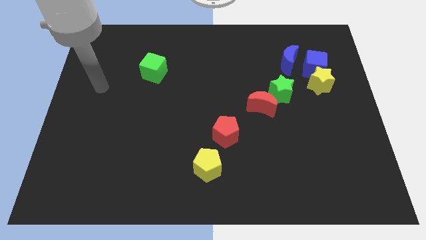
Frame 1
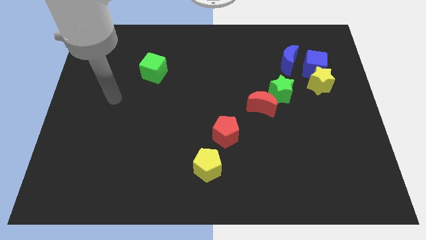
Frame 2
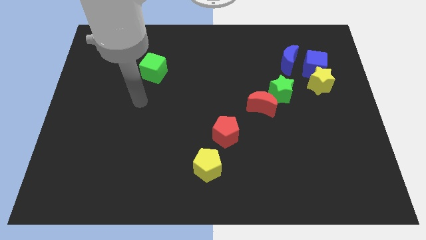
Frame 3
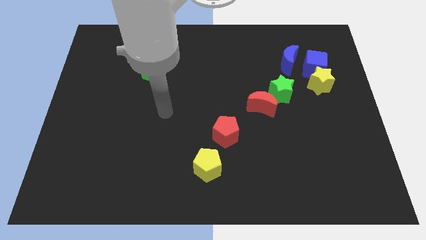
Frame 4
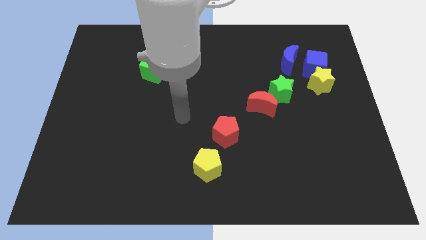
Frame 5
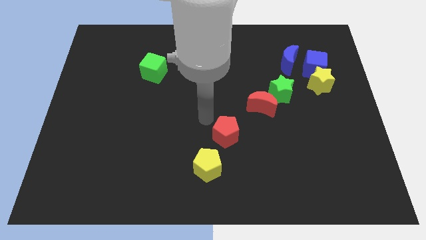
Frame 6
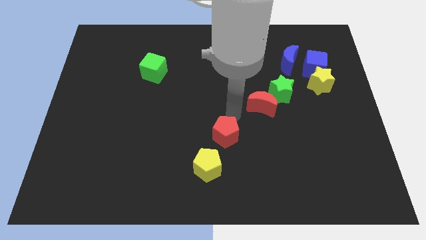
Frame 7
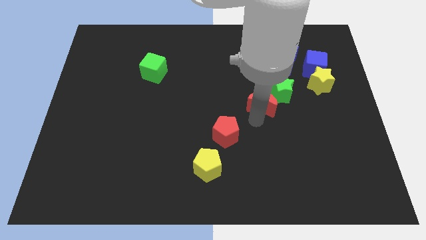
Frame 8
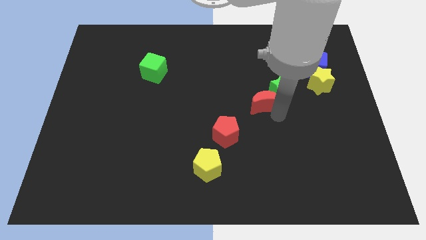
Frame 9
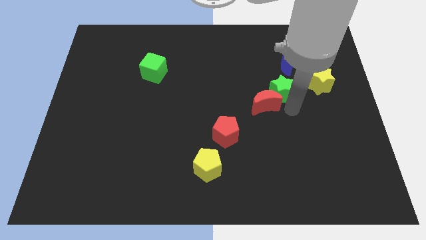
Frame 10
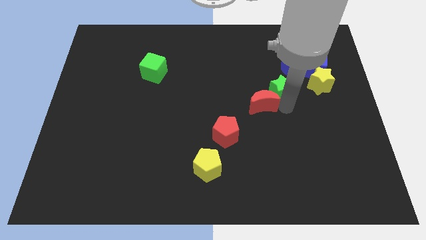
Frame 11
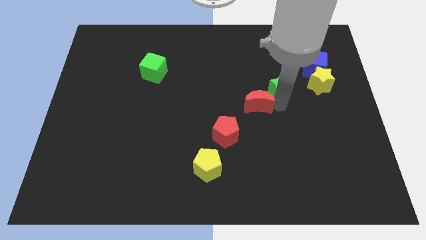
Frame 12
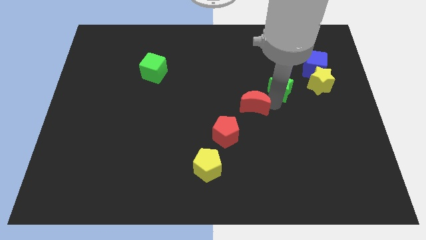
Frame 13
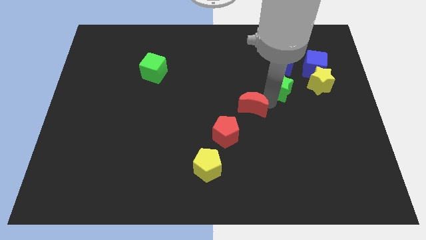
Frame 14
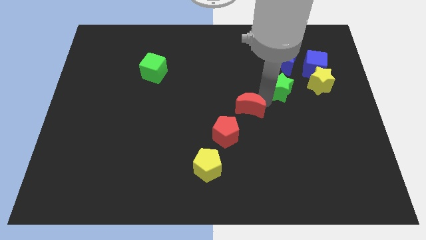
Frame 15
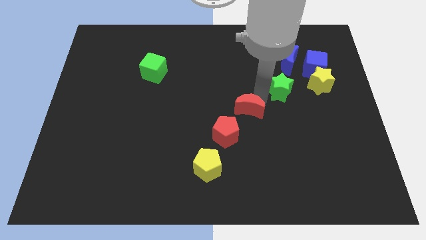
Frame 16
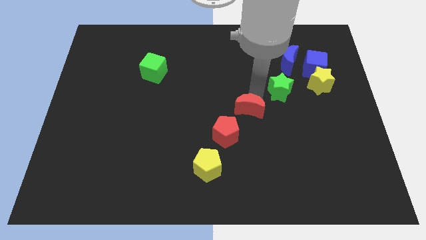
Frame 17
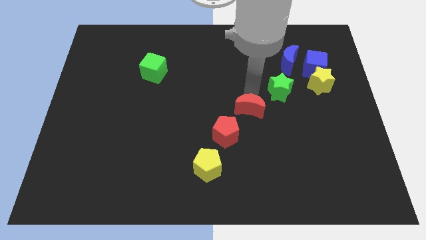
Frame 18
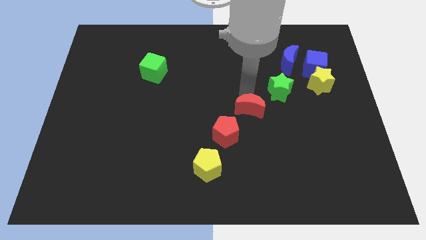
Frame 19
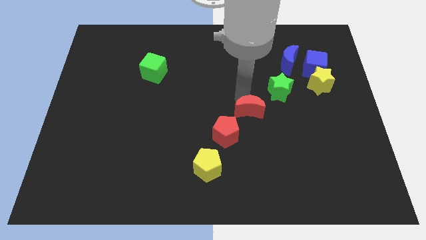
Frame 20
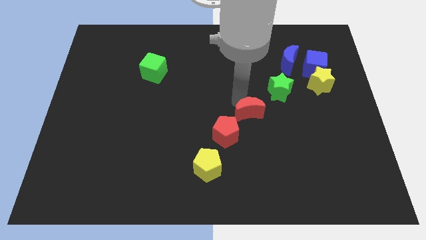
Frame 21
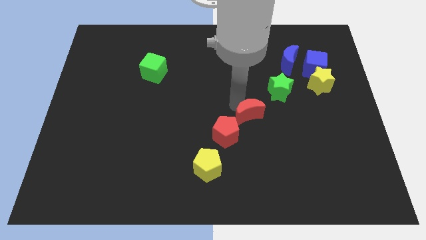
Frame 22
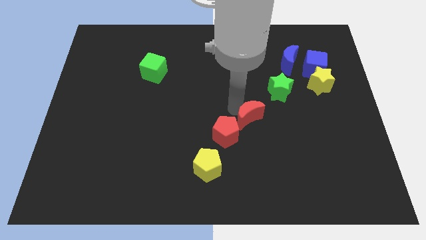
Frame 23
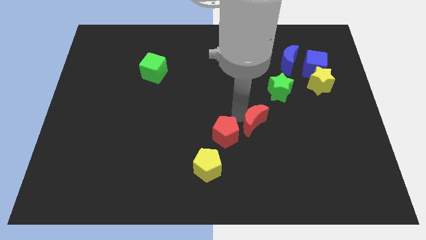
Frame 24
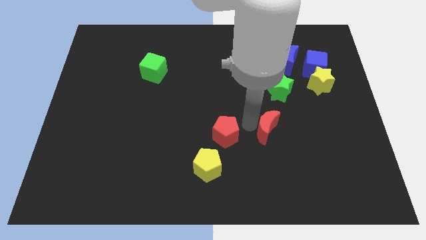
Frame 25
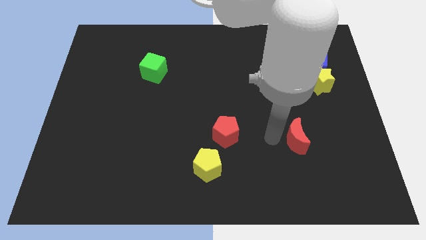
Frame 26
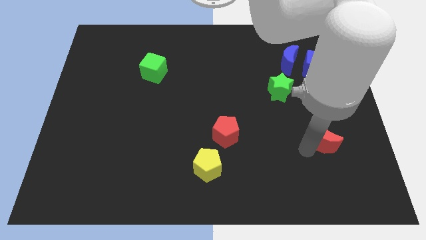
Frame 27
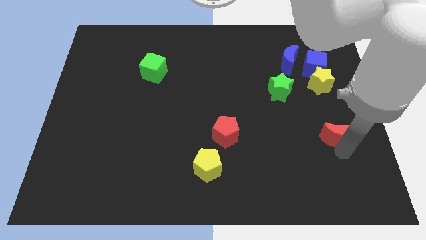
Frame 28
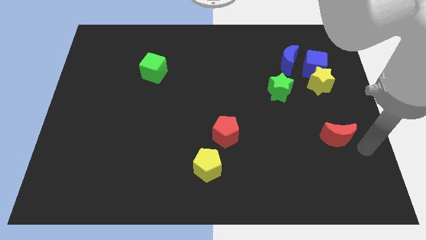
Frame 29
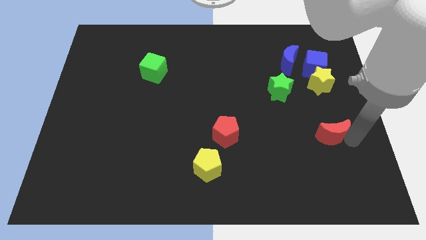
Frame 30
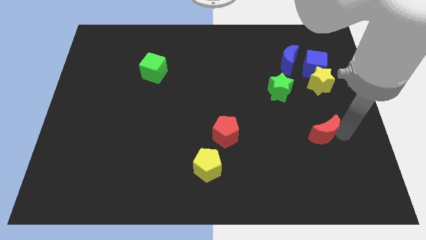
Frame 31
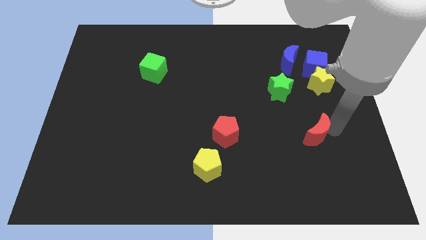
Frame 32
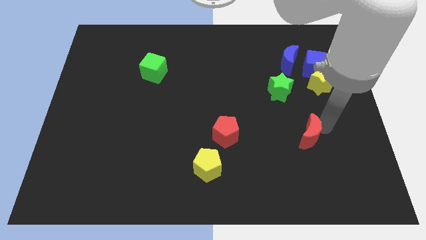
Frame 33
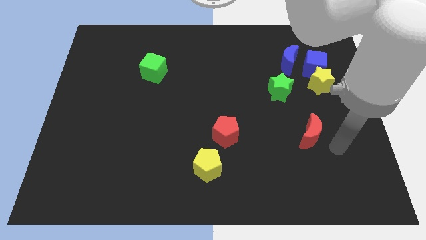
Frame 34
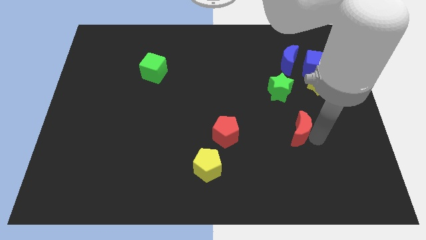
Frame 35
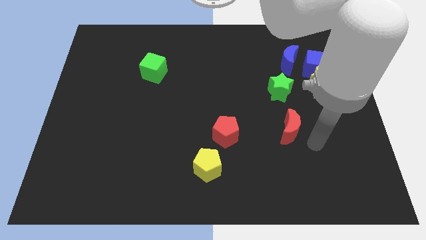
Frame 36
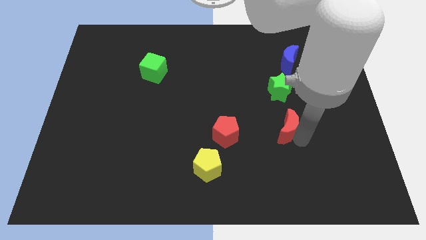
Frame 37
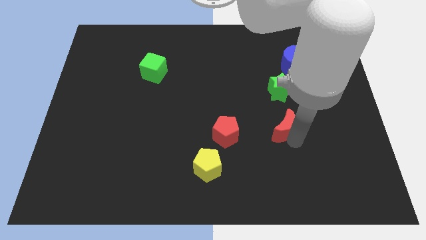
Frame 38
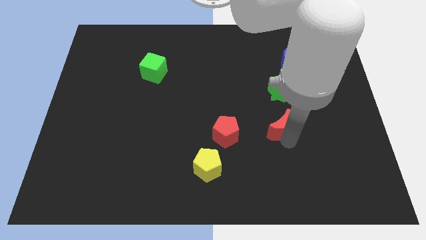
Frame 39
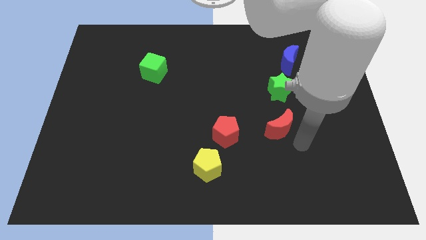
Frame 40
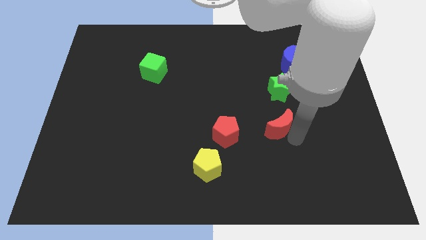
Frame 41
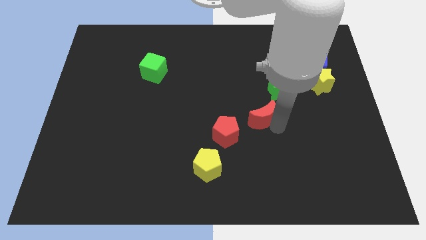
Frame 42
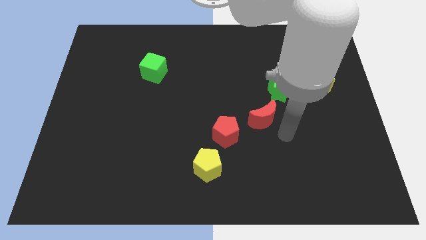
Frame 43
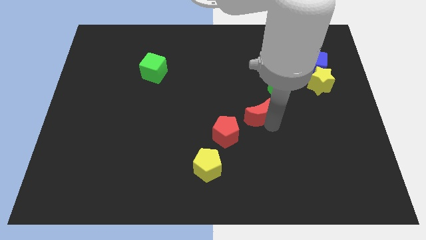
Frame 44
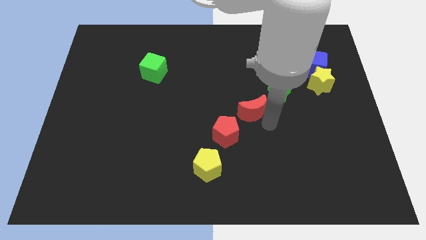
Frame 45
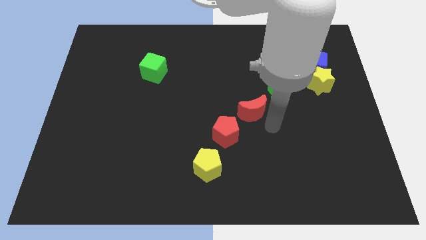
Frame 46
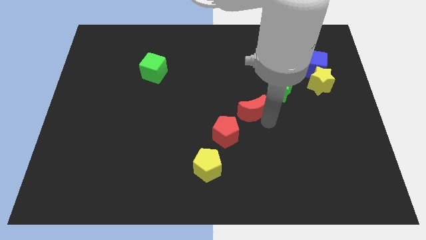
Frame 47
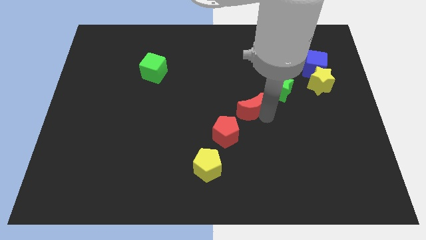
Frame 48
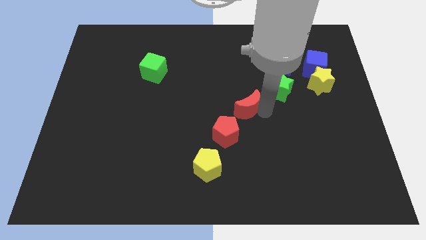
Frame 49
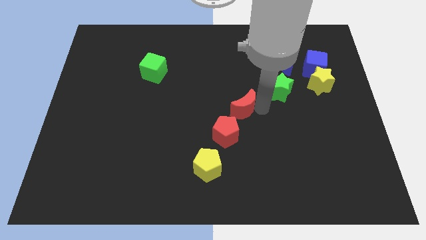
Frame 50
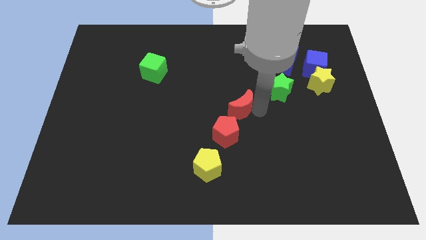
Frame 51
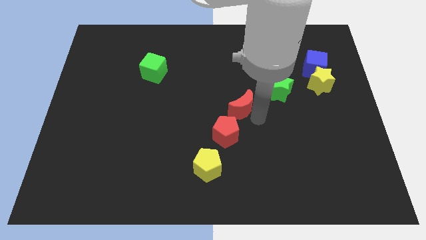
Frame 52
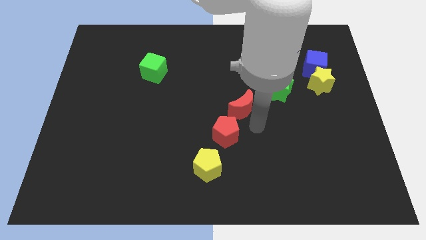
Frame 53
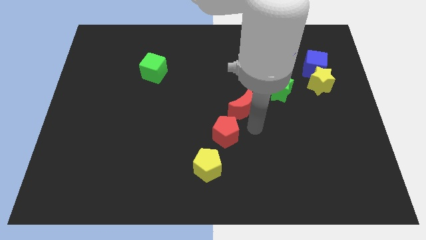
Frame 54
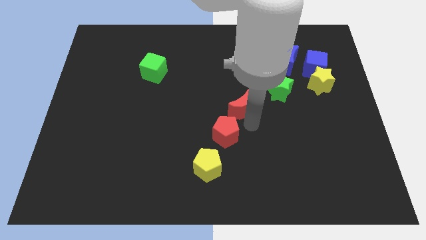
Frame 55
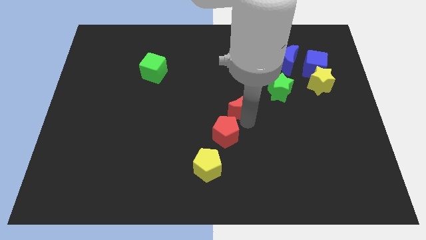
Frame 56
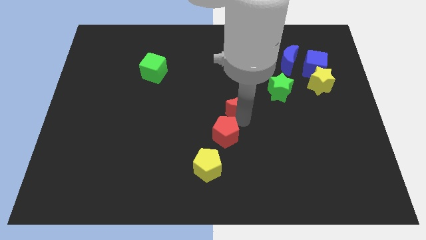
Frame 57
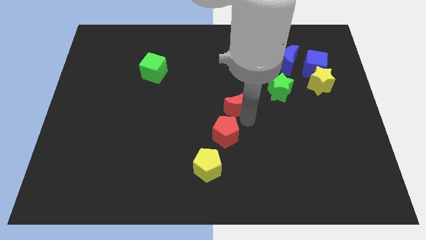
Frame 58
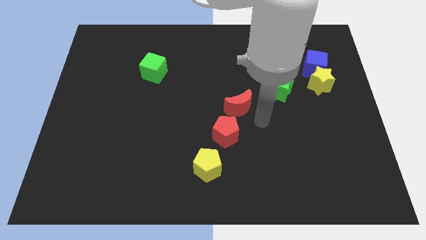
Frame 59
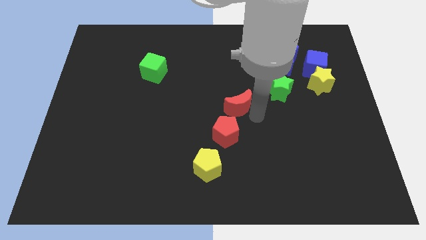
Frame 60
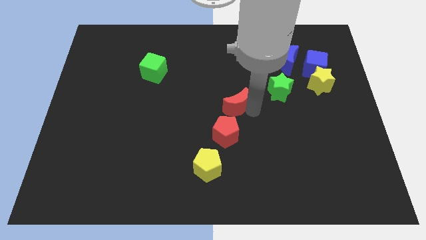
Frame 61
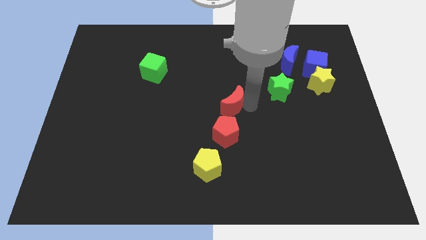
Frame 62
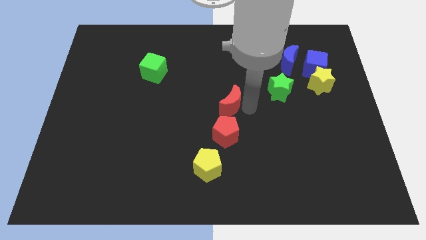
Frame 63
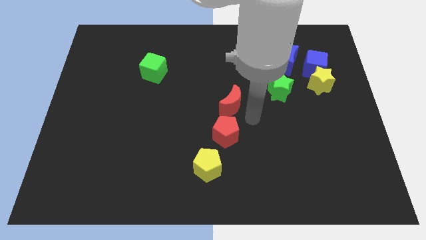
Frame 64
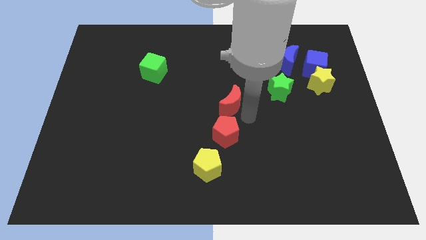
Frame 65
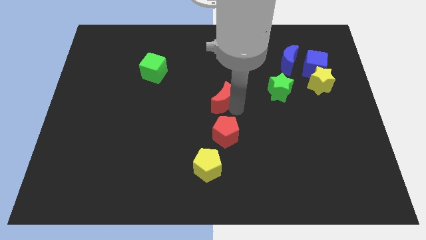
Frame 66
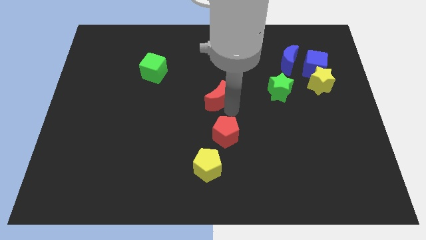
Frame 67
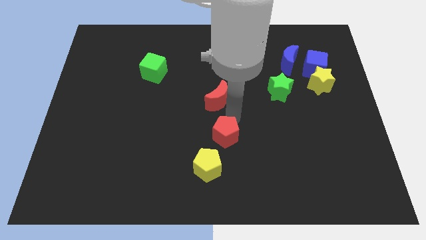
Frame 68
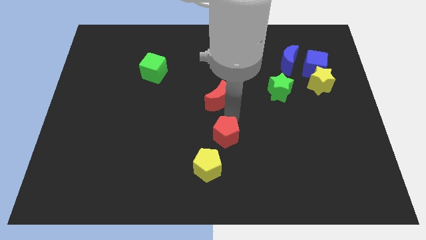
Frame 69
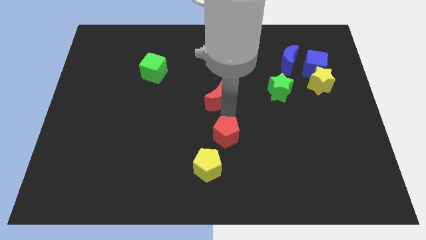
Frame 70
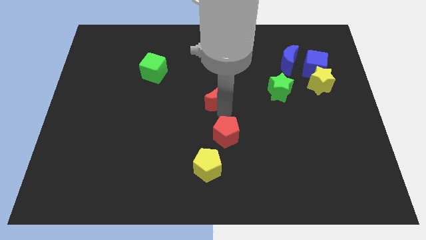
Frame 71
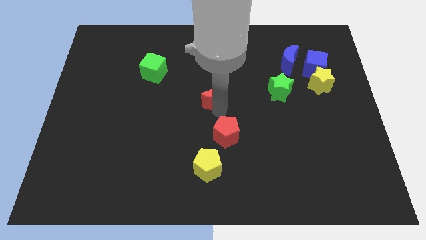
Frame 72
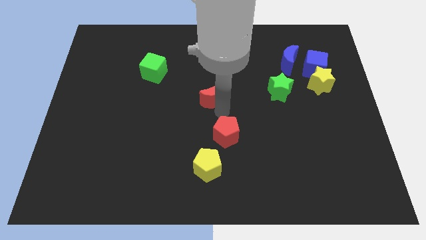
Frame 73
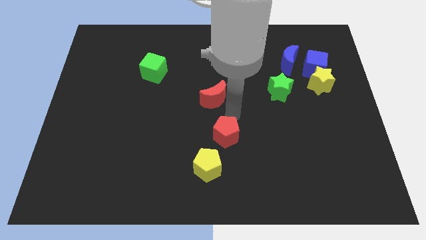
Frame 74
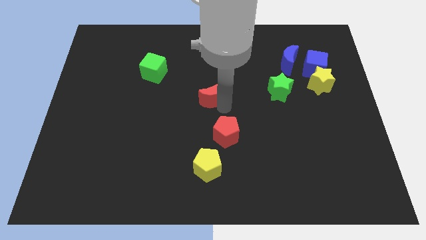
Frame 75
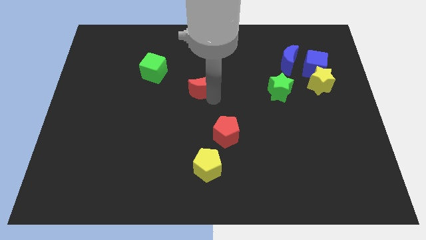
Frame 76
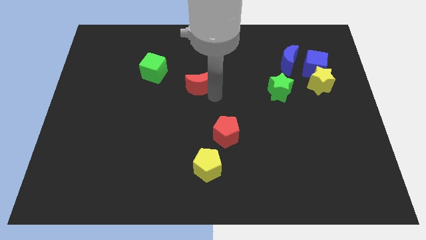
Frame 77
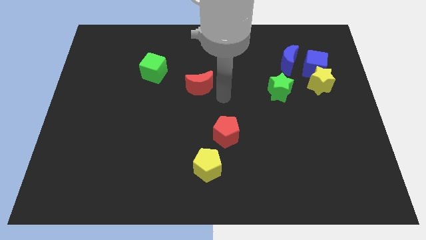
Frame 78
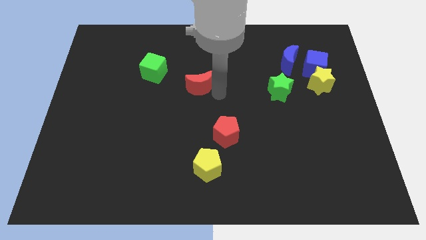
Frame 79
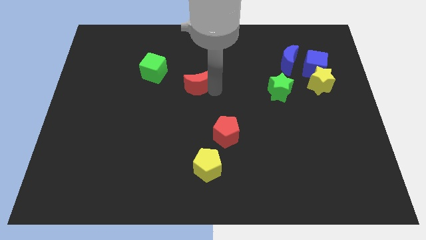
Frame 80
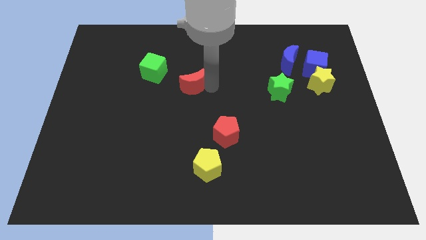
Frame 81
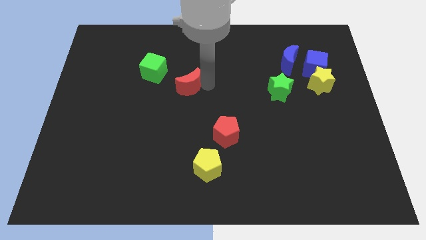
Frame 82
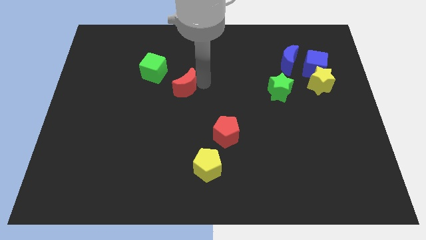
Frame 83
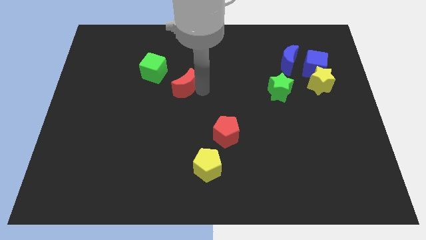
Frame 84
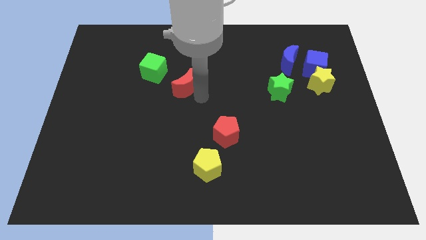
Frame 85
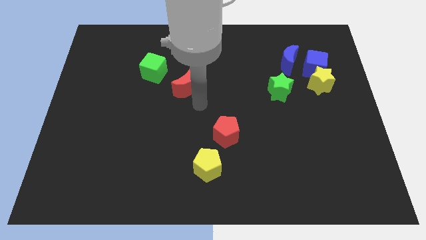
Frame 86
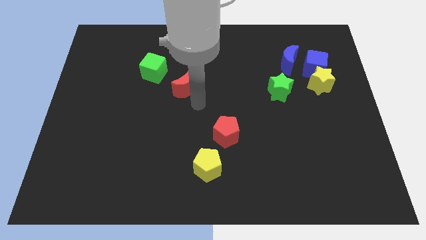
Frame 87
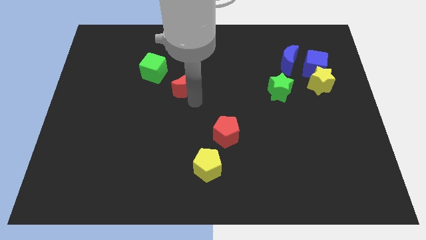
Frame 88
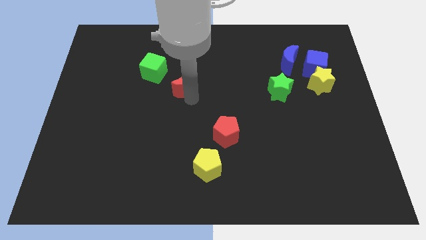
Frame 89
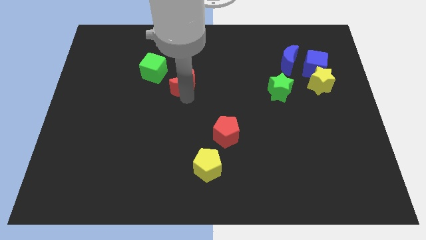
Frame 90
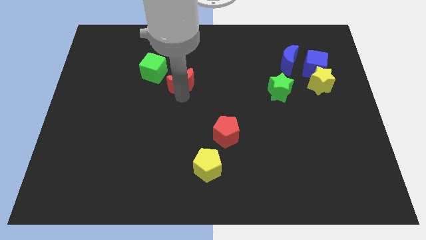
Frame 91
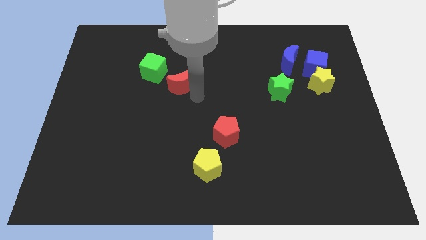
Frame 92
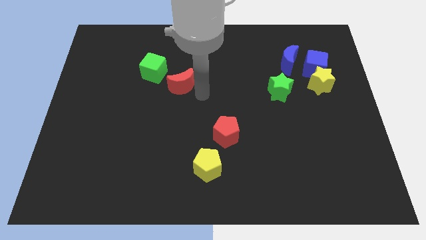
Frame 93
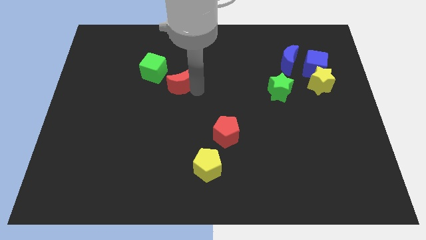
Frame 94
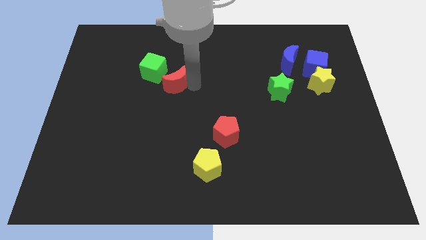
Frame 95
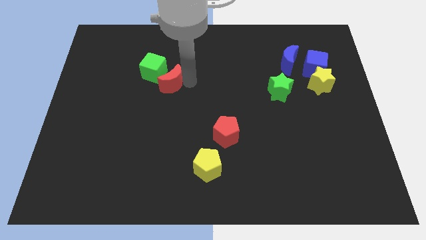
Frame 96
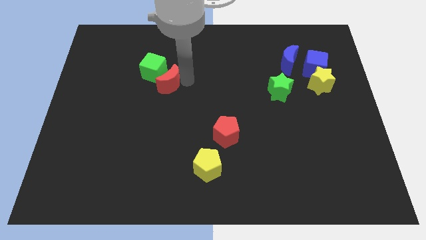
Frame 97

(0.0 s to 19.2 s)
put the red moon to the green cube
